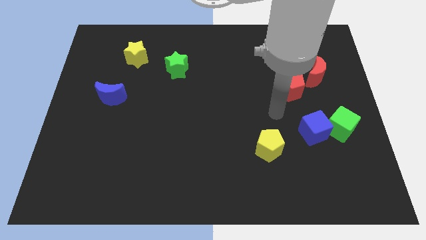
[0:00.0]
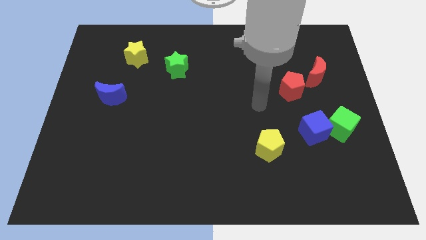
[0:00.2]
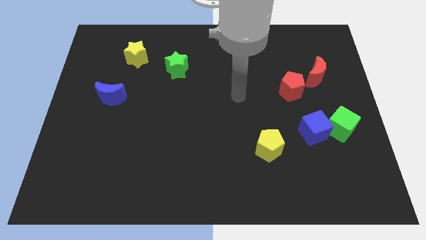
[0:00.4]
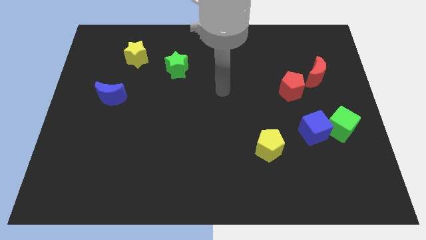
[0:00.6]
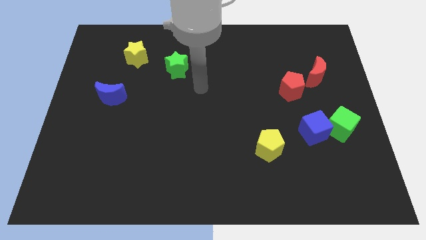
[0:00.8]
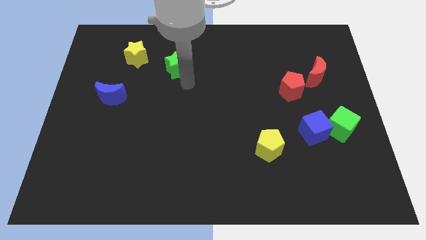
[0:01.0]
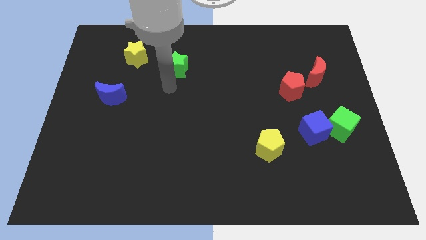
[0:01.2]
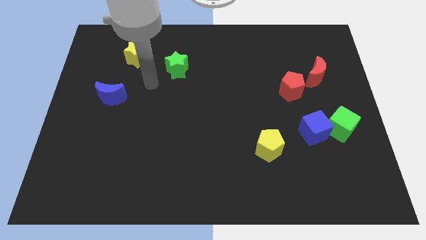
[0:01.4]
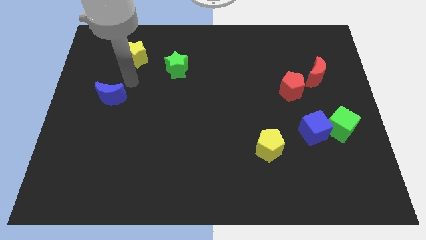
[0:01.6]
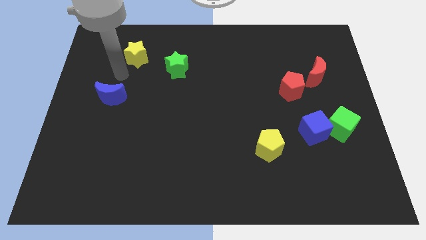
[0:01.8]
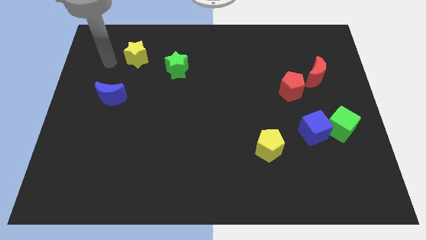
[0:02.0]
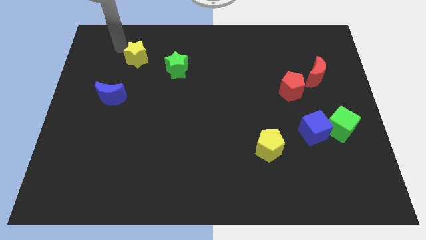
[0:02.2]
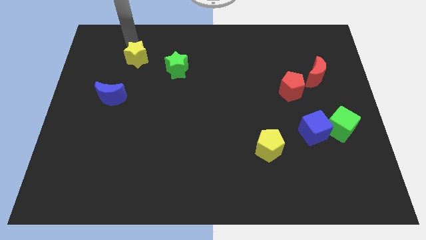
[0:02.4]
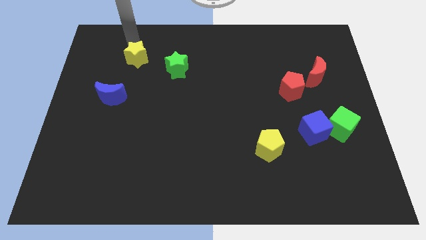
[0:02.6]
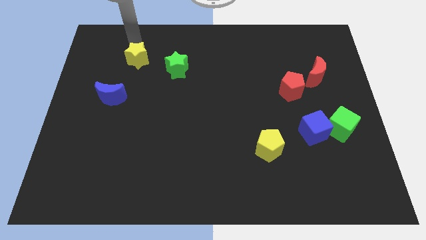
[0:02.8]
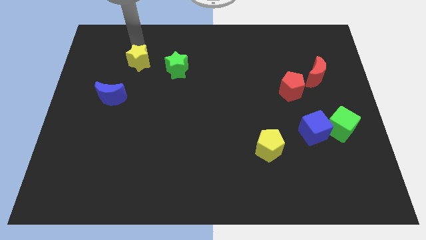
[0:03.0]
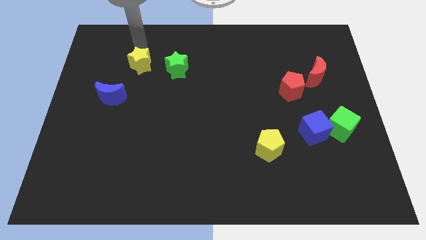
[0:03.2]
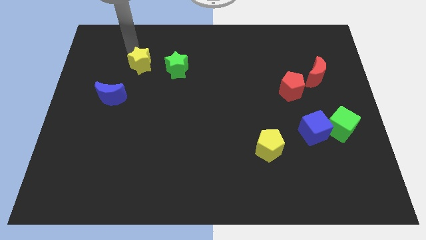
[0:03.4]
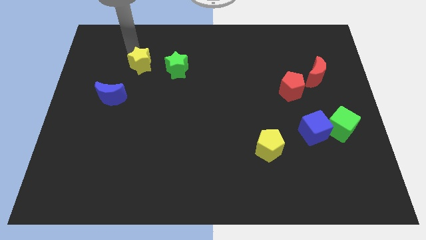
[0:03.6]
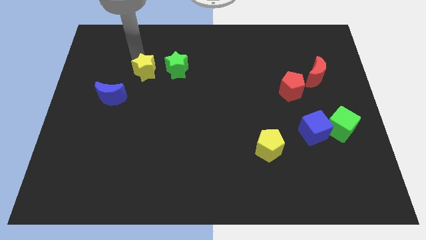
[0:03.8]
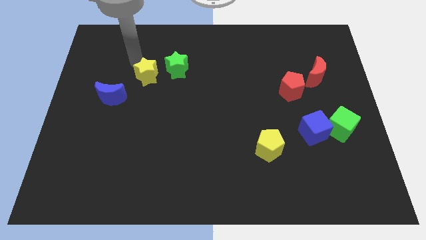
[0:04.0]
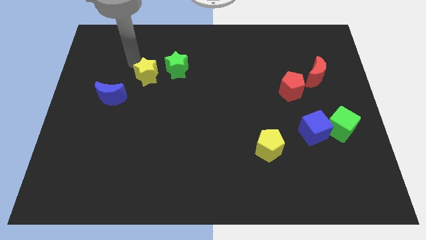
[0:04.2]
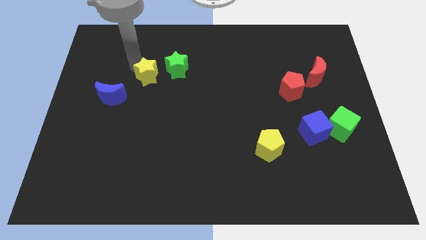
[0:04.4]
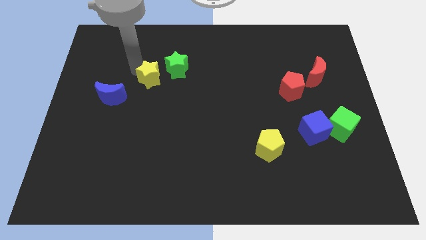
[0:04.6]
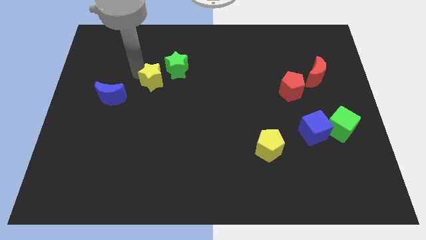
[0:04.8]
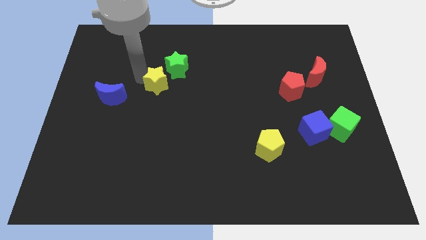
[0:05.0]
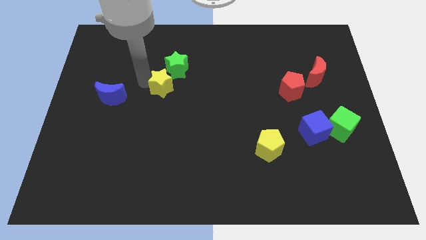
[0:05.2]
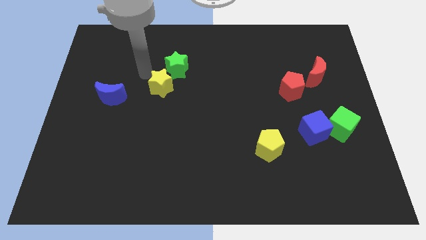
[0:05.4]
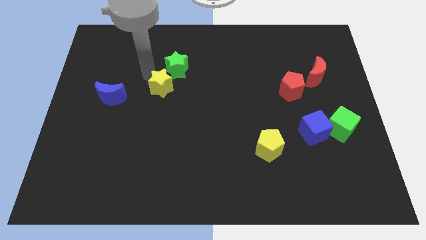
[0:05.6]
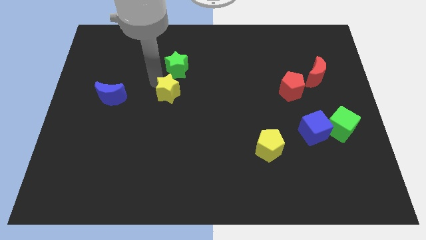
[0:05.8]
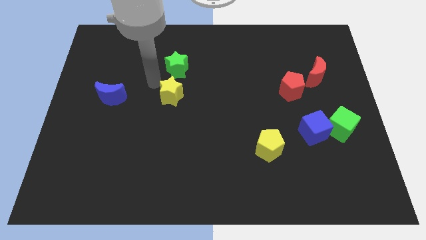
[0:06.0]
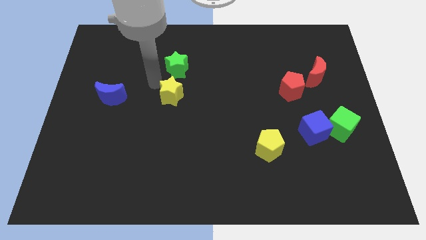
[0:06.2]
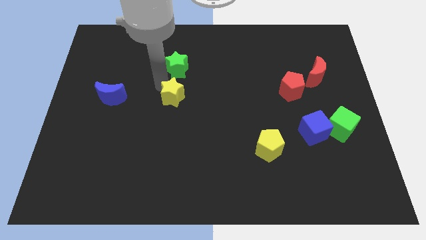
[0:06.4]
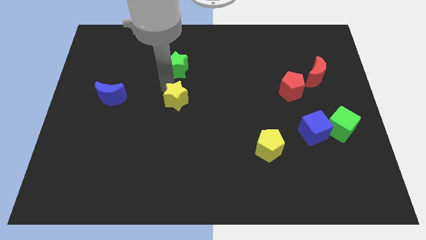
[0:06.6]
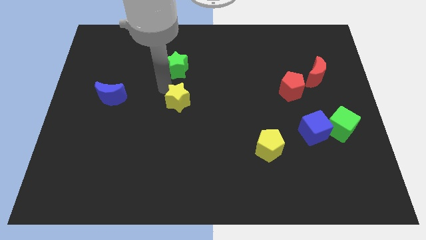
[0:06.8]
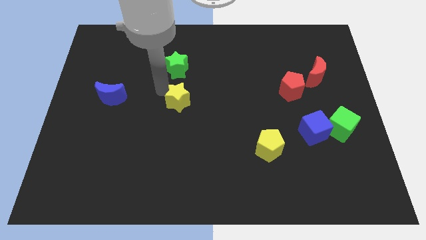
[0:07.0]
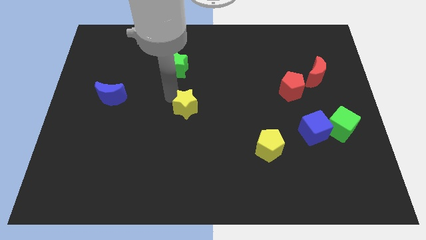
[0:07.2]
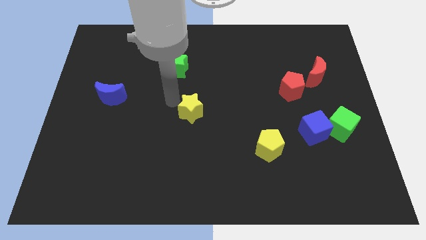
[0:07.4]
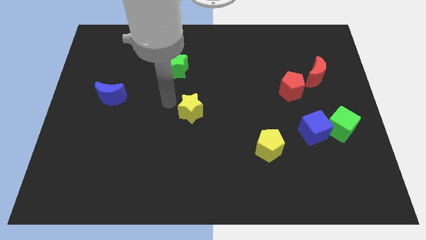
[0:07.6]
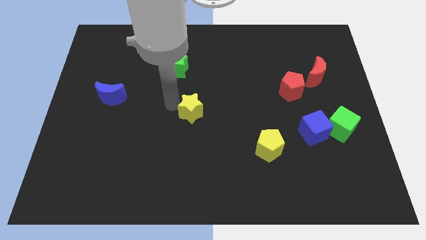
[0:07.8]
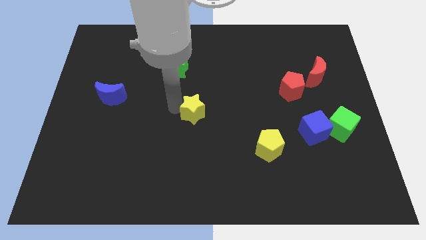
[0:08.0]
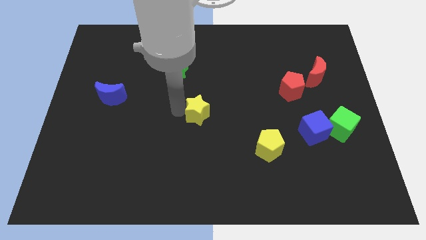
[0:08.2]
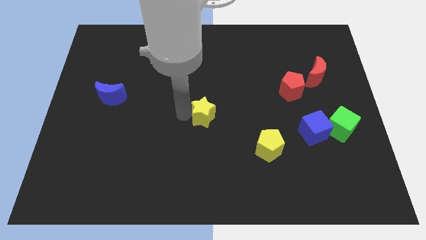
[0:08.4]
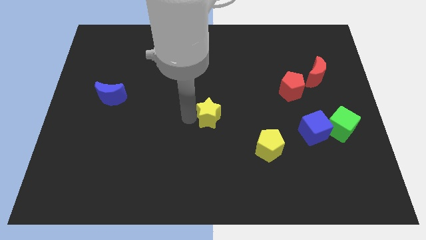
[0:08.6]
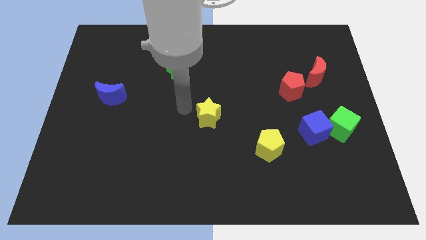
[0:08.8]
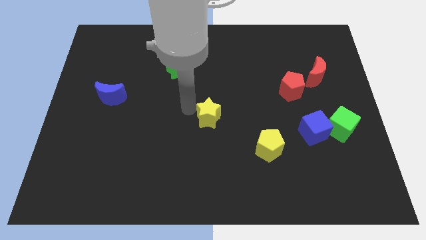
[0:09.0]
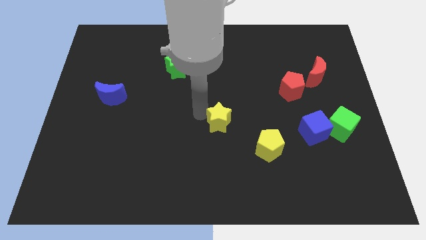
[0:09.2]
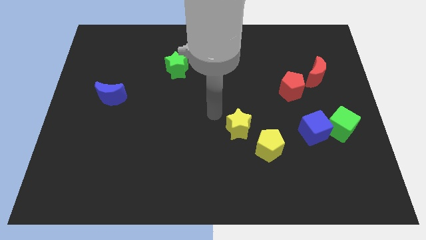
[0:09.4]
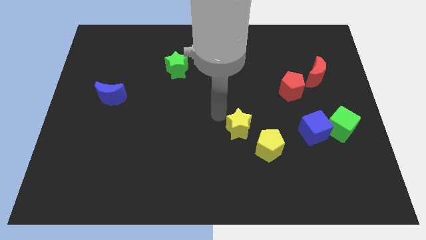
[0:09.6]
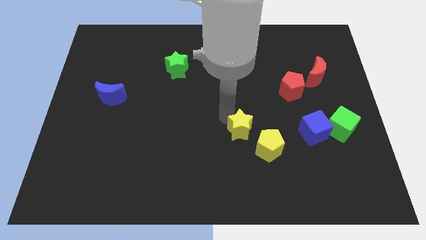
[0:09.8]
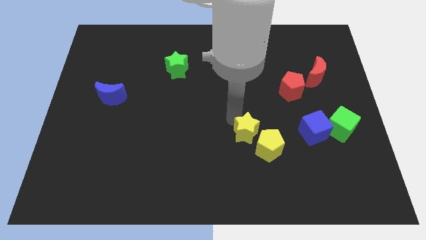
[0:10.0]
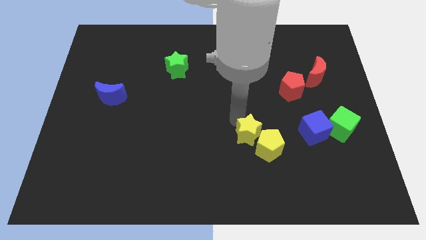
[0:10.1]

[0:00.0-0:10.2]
move the yellow star next to the yellow pentagon

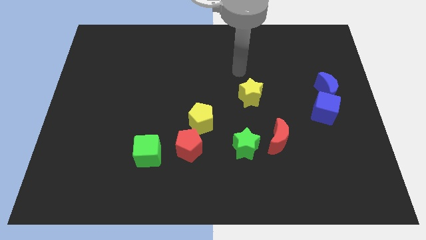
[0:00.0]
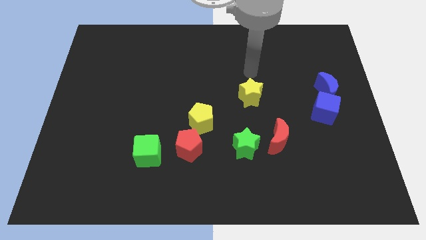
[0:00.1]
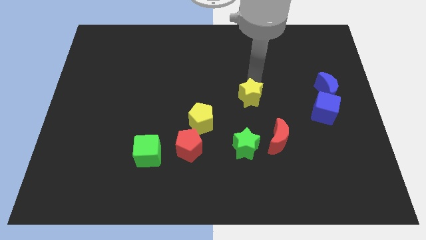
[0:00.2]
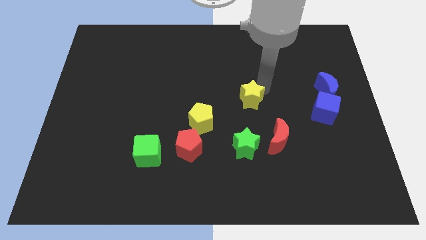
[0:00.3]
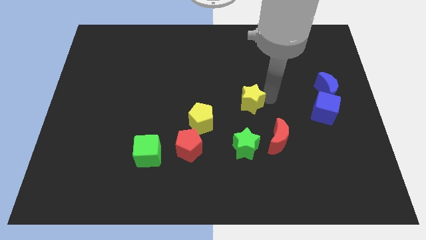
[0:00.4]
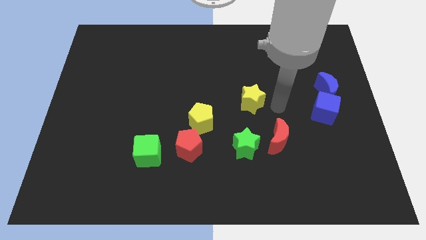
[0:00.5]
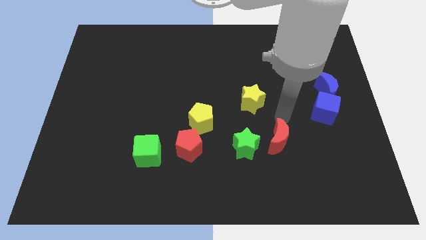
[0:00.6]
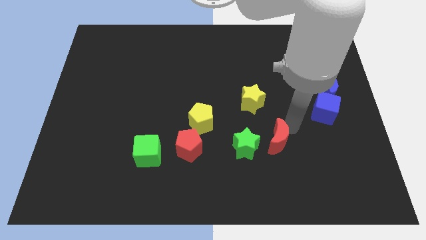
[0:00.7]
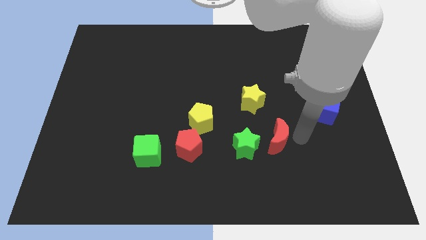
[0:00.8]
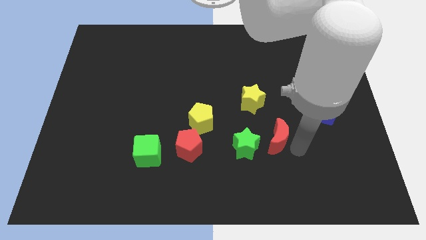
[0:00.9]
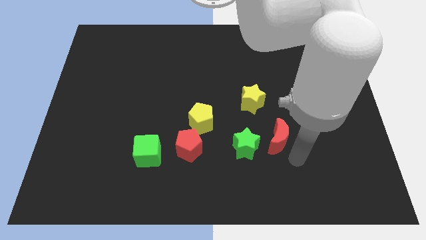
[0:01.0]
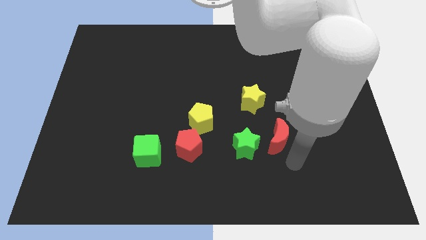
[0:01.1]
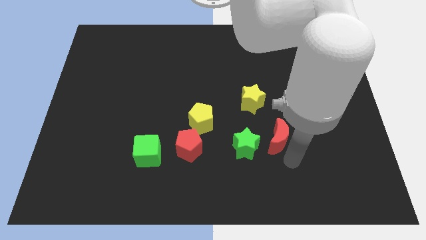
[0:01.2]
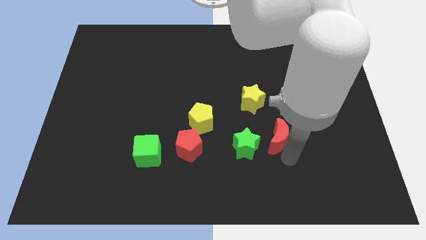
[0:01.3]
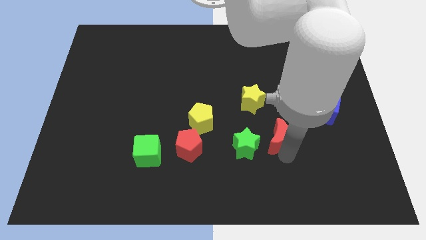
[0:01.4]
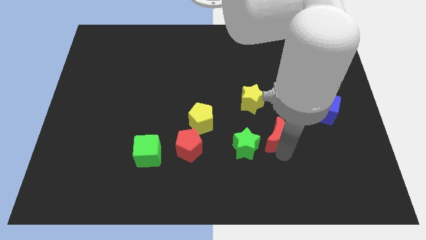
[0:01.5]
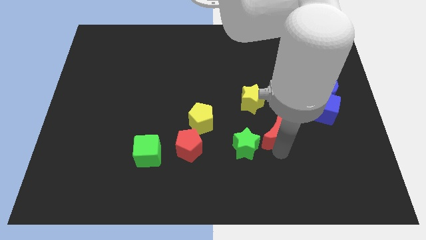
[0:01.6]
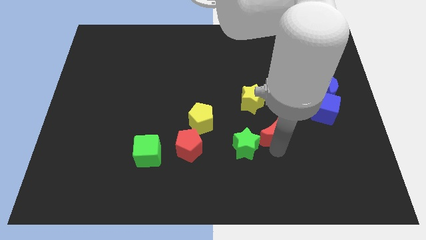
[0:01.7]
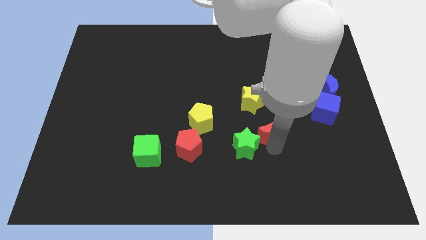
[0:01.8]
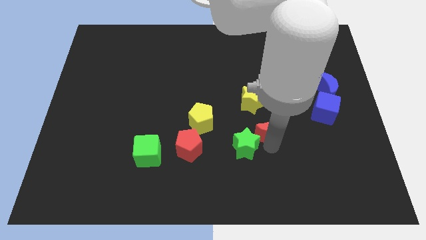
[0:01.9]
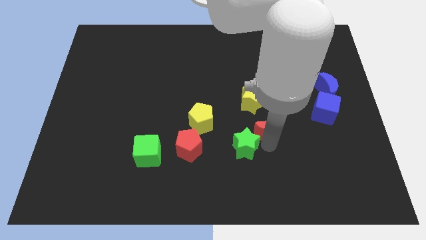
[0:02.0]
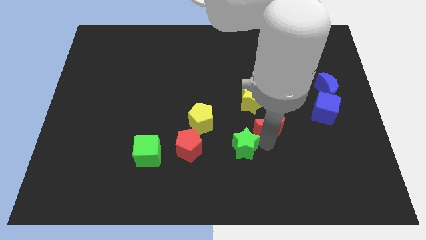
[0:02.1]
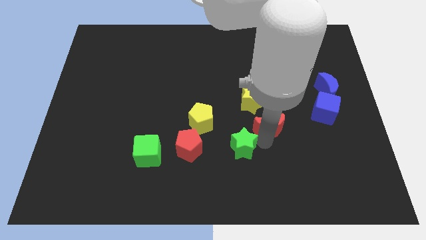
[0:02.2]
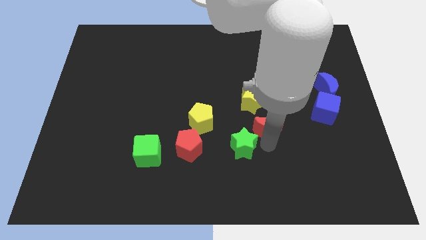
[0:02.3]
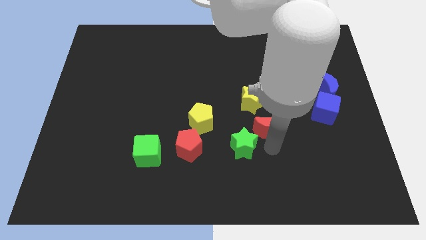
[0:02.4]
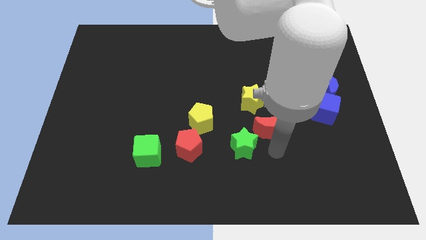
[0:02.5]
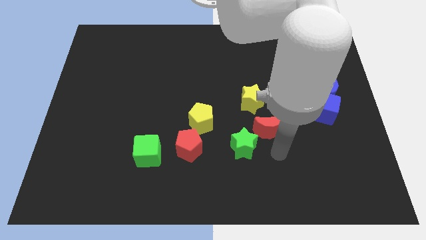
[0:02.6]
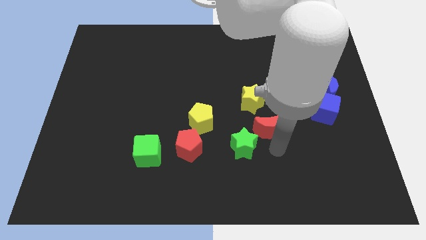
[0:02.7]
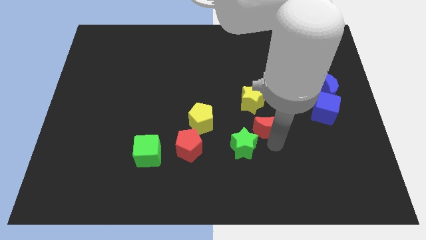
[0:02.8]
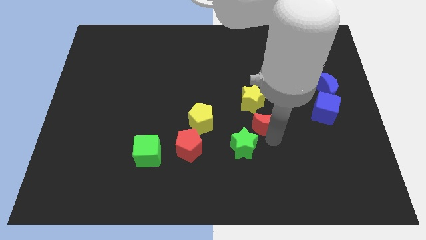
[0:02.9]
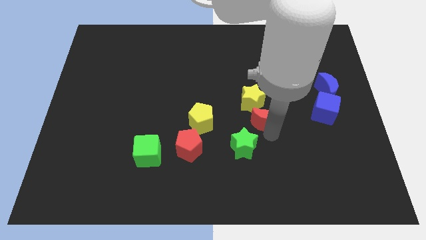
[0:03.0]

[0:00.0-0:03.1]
put the red moon to the yellow star
